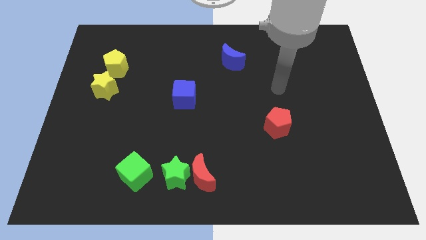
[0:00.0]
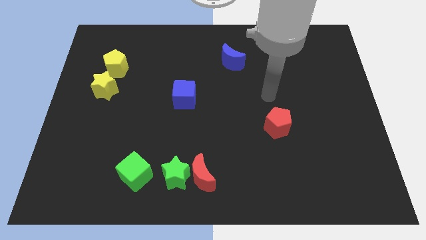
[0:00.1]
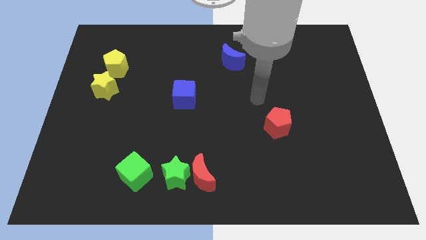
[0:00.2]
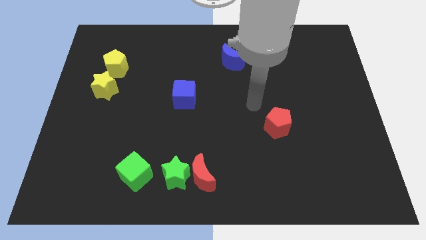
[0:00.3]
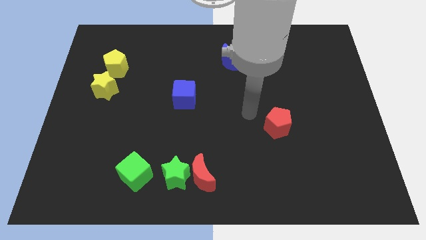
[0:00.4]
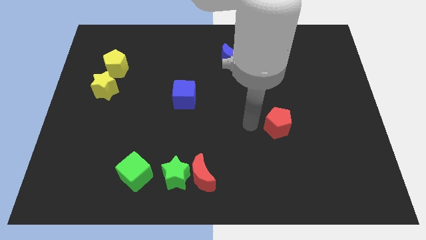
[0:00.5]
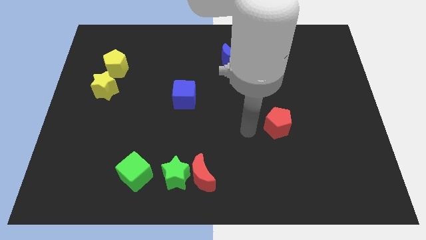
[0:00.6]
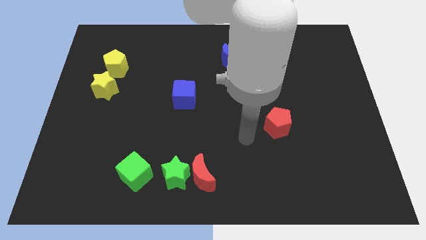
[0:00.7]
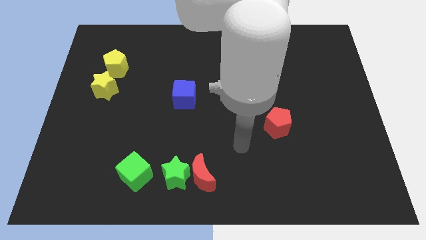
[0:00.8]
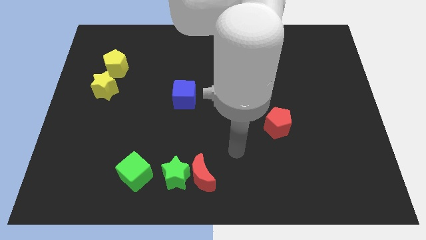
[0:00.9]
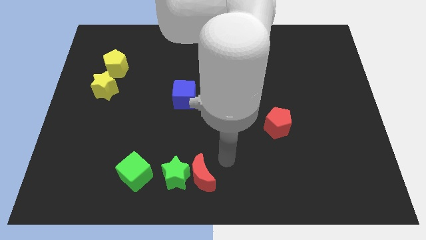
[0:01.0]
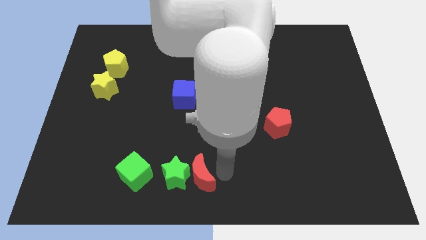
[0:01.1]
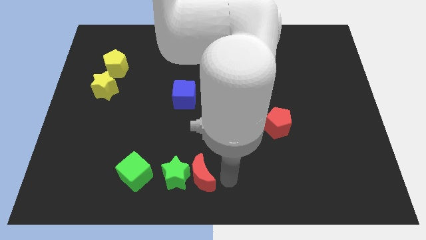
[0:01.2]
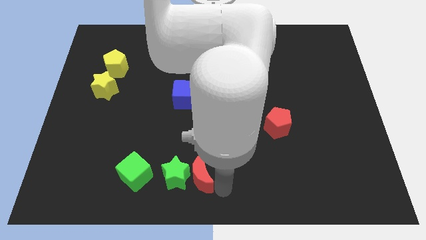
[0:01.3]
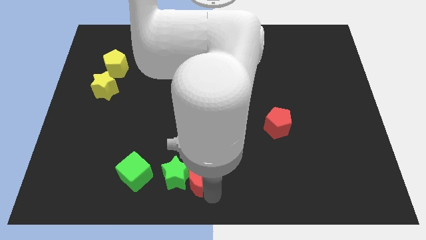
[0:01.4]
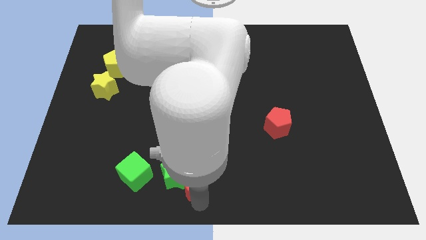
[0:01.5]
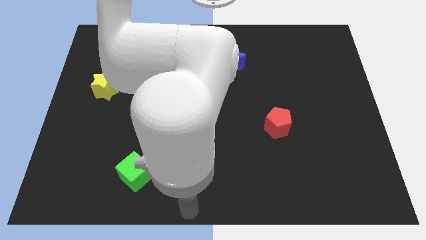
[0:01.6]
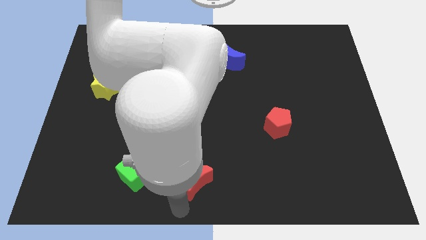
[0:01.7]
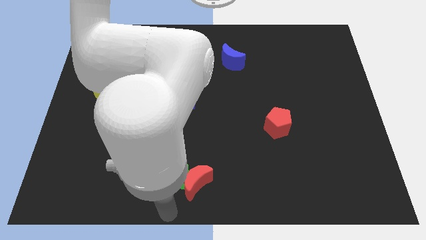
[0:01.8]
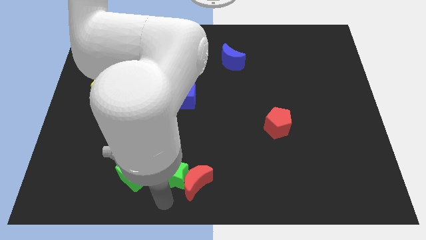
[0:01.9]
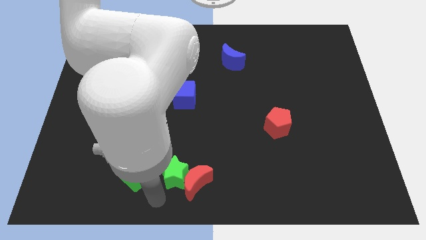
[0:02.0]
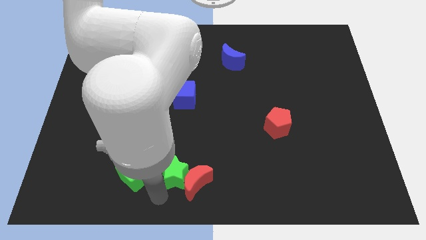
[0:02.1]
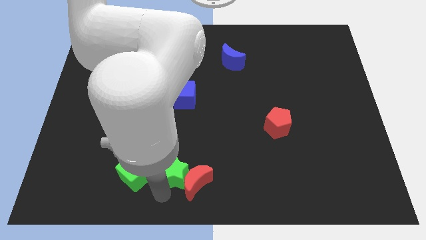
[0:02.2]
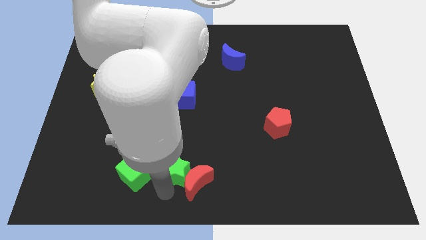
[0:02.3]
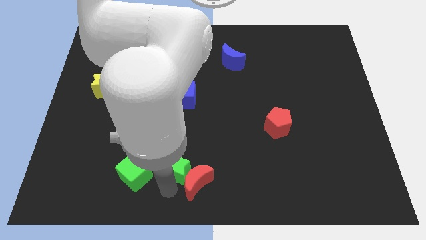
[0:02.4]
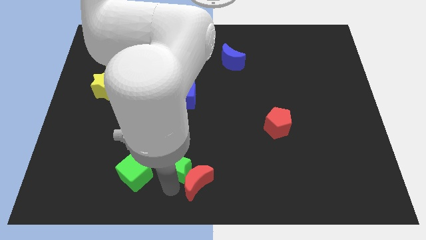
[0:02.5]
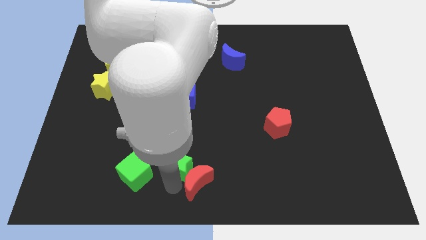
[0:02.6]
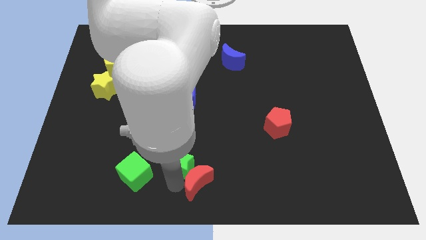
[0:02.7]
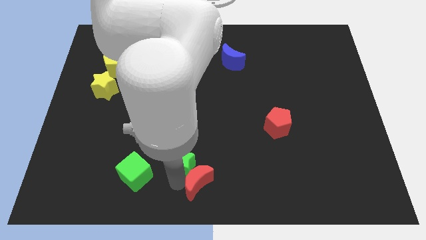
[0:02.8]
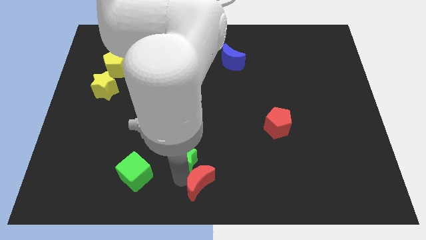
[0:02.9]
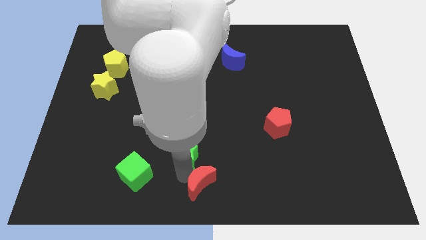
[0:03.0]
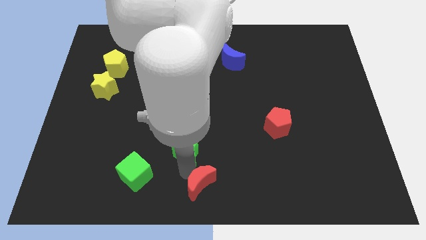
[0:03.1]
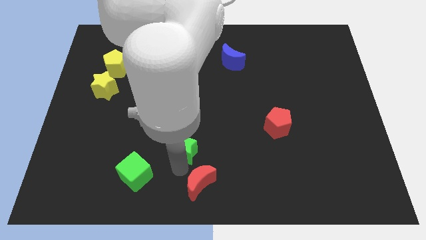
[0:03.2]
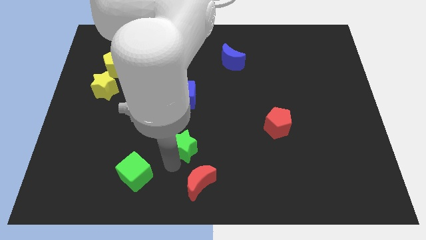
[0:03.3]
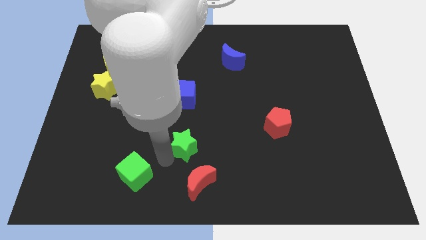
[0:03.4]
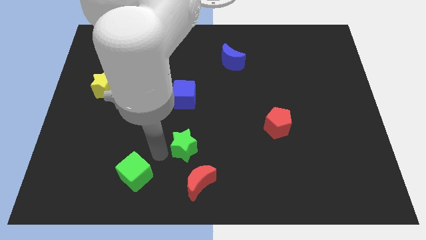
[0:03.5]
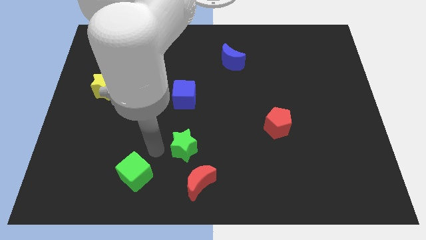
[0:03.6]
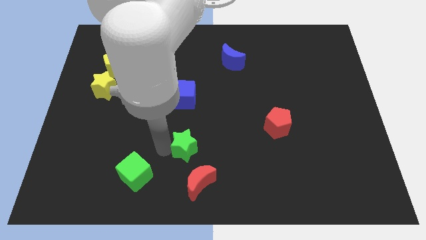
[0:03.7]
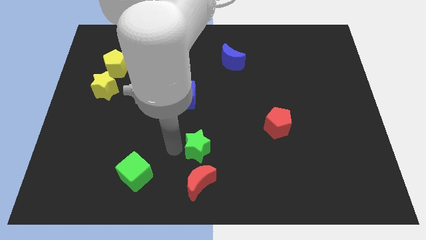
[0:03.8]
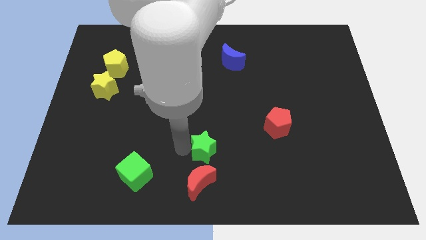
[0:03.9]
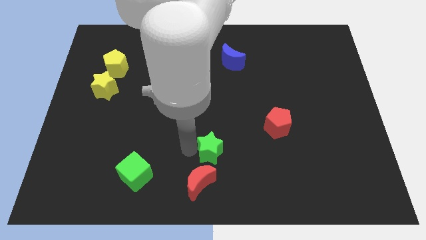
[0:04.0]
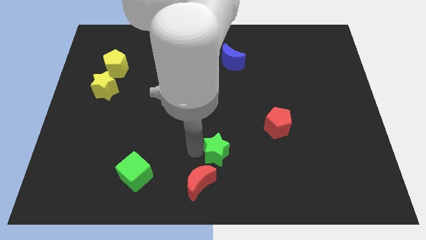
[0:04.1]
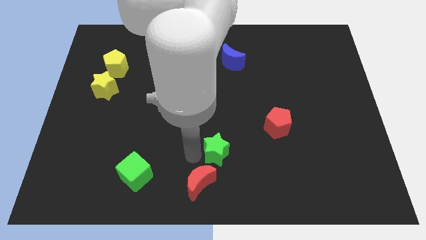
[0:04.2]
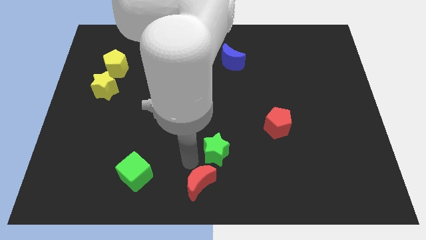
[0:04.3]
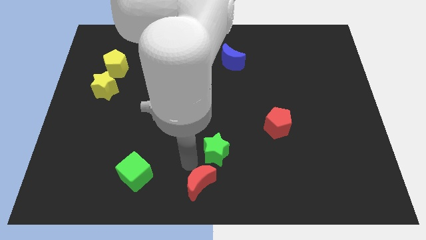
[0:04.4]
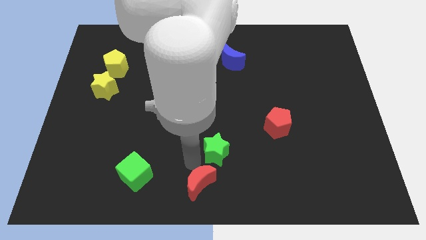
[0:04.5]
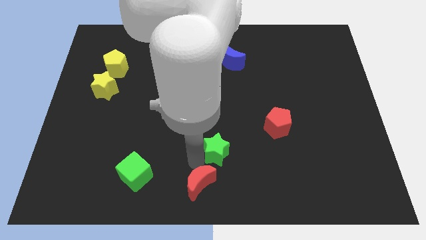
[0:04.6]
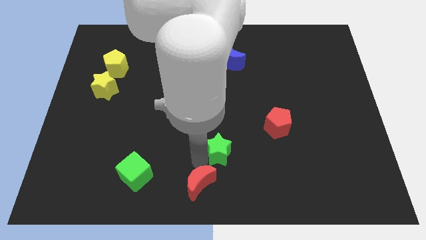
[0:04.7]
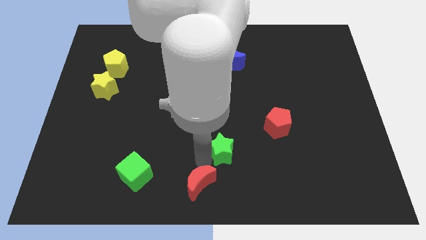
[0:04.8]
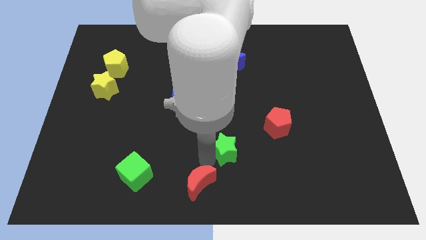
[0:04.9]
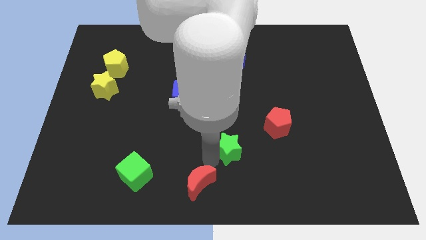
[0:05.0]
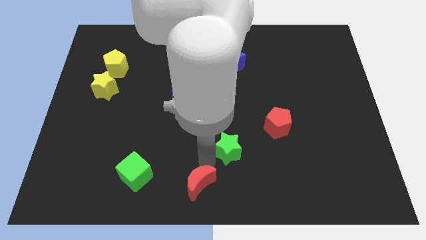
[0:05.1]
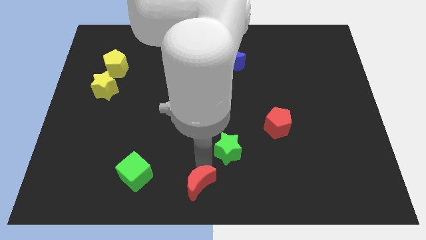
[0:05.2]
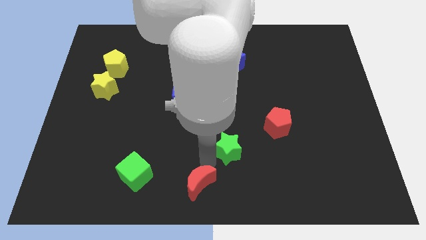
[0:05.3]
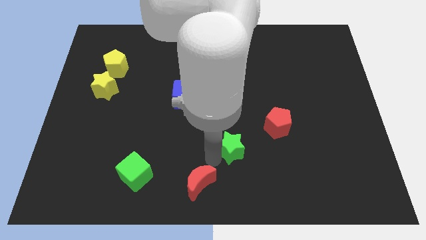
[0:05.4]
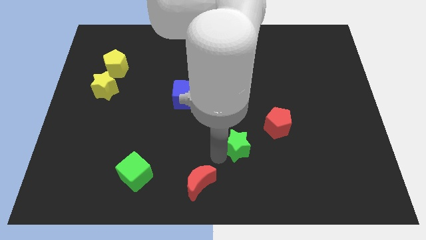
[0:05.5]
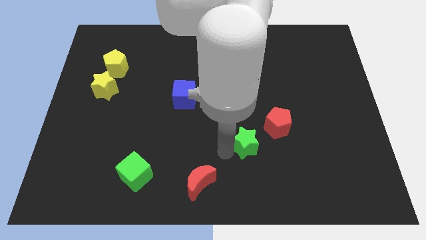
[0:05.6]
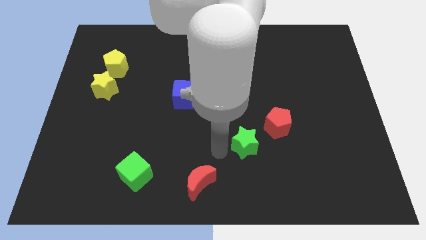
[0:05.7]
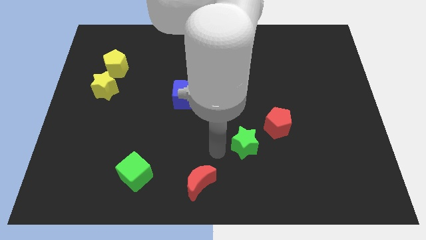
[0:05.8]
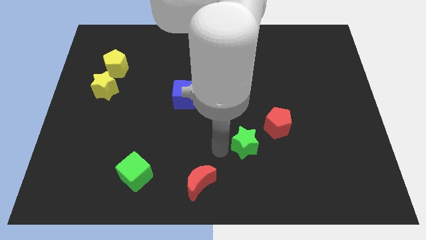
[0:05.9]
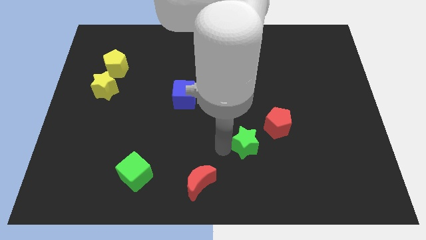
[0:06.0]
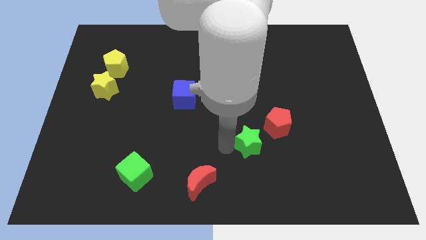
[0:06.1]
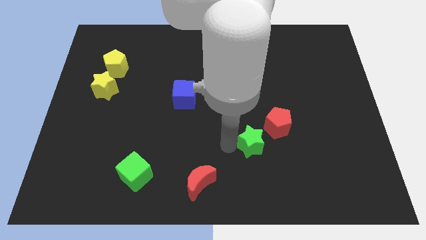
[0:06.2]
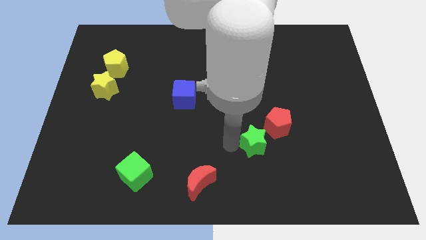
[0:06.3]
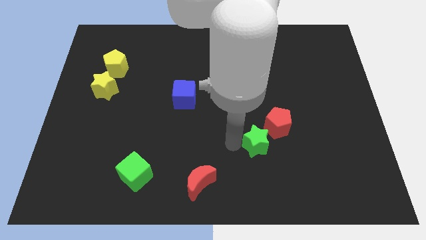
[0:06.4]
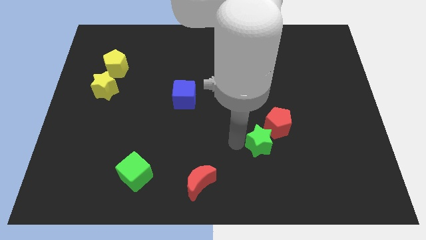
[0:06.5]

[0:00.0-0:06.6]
put the green star close to the red pentagon

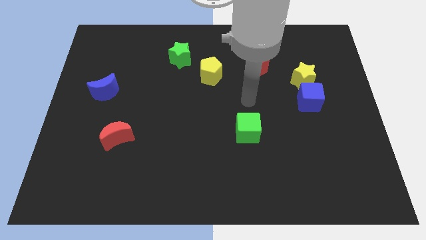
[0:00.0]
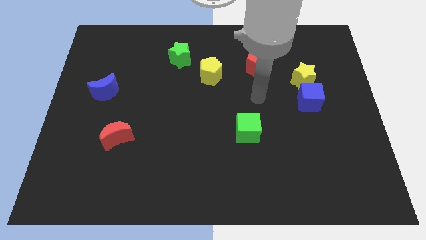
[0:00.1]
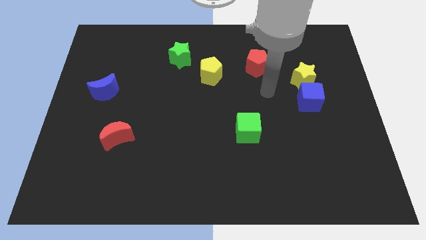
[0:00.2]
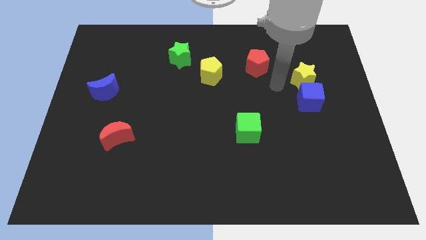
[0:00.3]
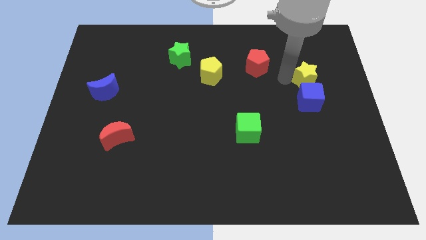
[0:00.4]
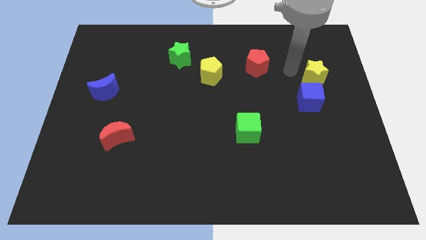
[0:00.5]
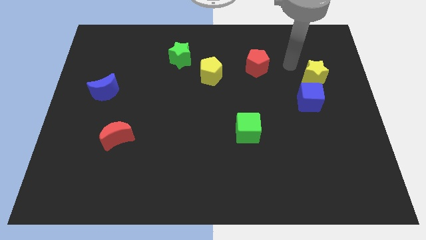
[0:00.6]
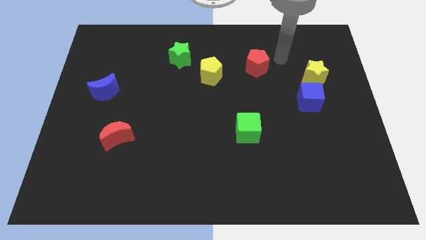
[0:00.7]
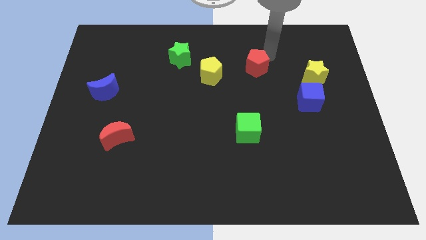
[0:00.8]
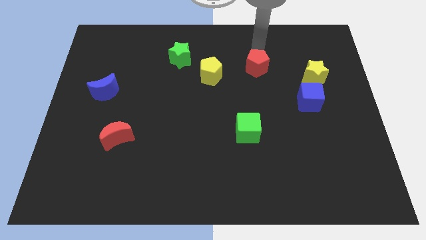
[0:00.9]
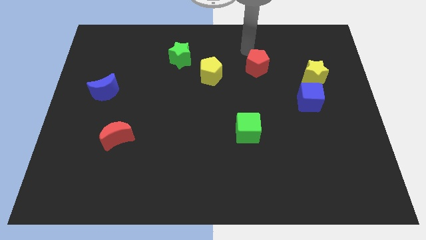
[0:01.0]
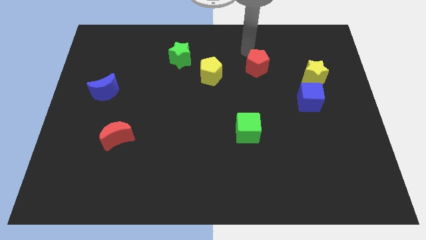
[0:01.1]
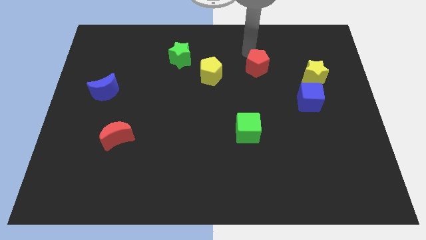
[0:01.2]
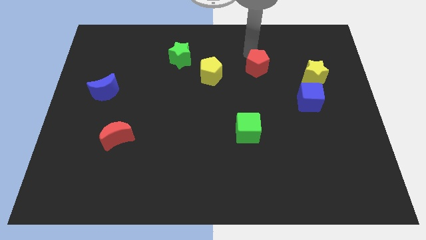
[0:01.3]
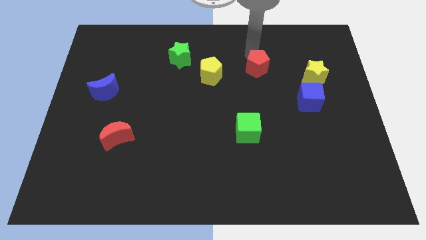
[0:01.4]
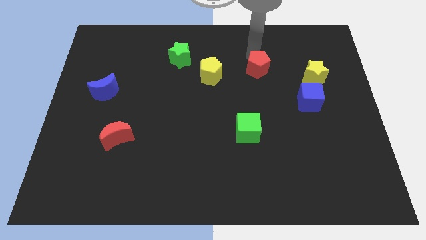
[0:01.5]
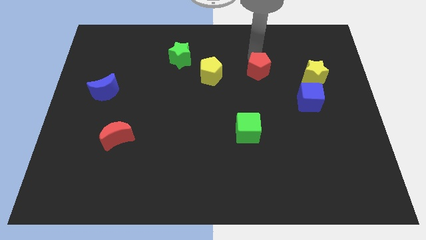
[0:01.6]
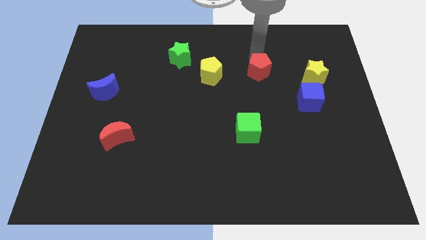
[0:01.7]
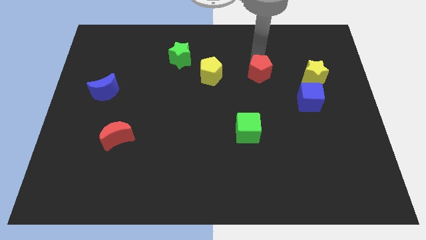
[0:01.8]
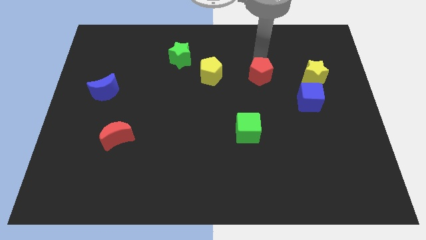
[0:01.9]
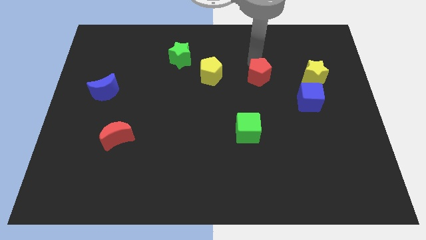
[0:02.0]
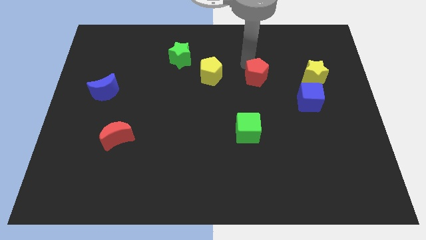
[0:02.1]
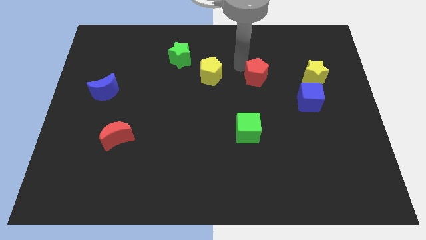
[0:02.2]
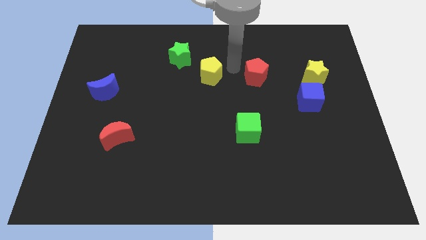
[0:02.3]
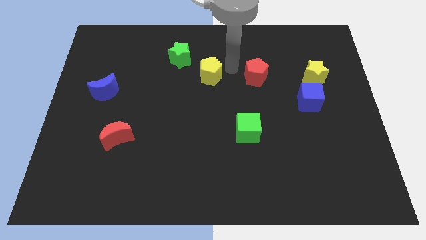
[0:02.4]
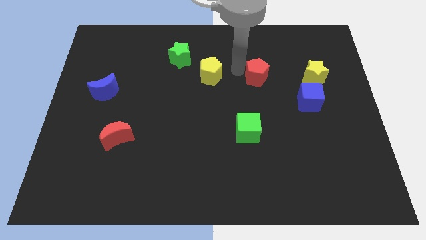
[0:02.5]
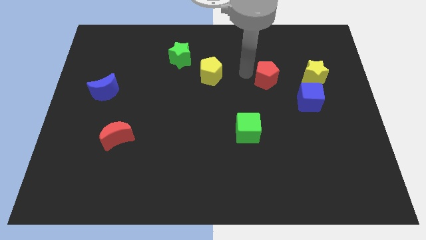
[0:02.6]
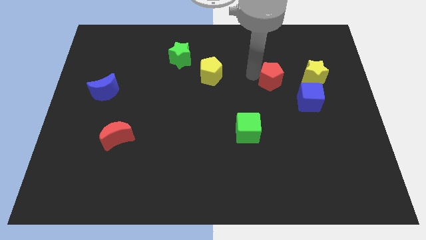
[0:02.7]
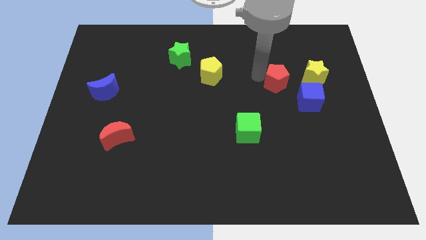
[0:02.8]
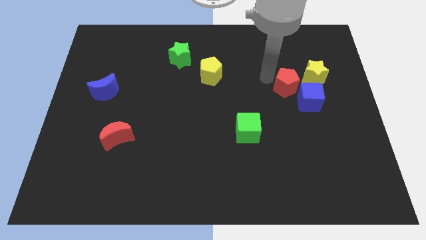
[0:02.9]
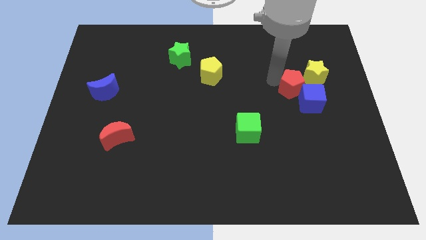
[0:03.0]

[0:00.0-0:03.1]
slide the red pentagon next to the blue cube
